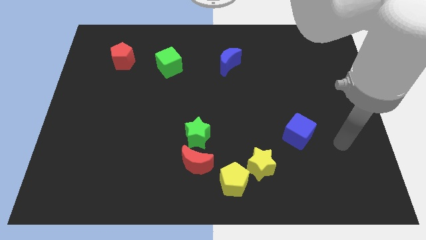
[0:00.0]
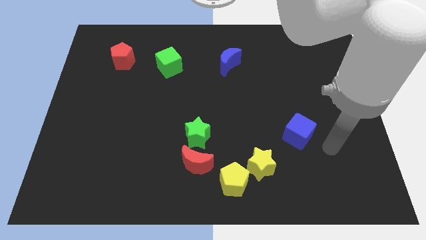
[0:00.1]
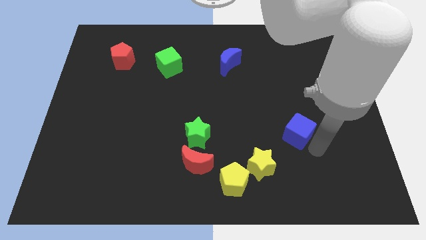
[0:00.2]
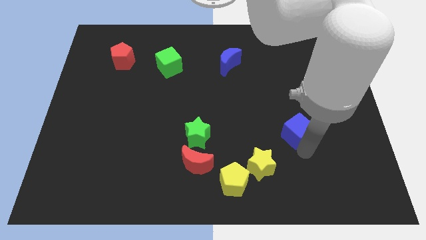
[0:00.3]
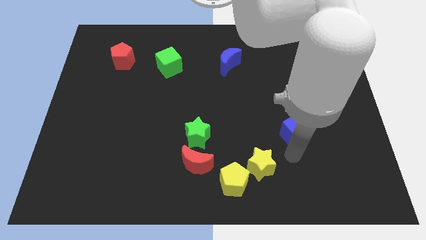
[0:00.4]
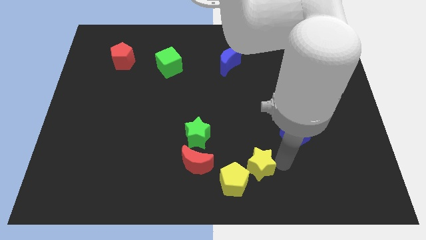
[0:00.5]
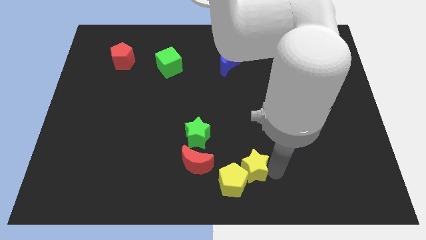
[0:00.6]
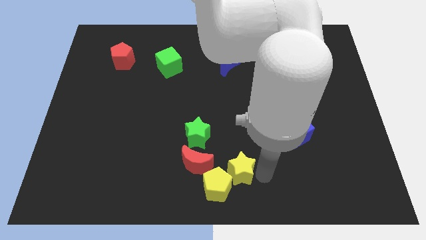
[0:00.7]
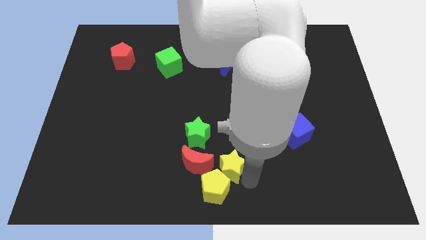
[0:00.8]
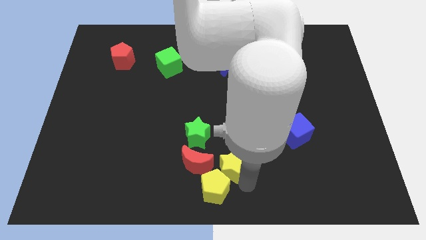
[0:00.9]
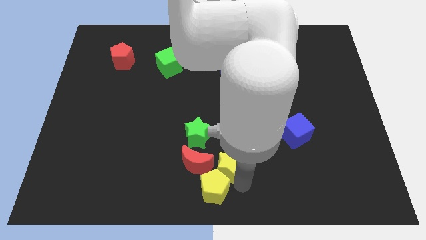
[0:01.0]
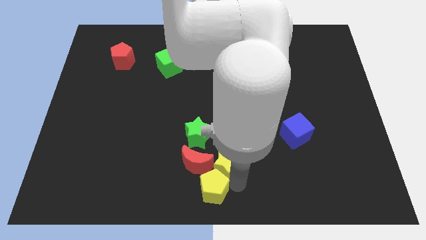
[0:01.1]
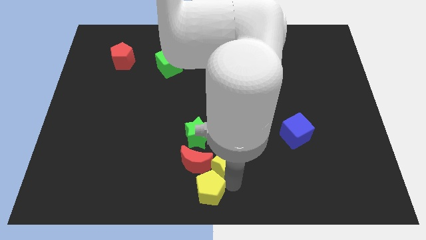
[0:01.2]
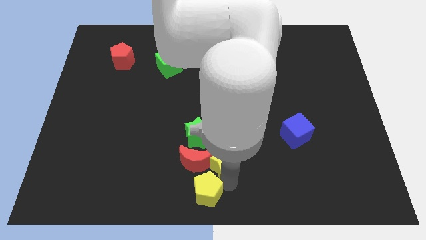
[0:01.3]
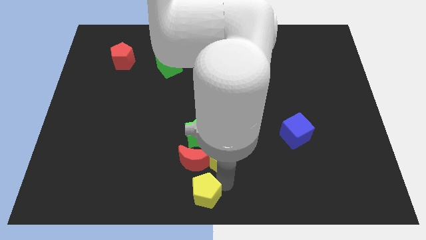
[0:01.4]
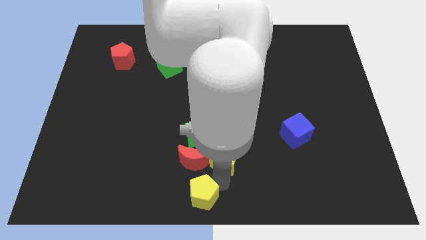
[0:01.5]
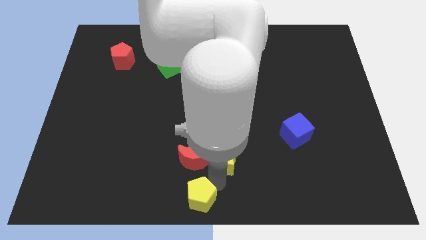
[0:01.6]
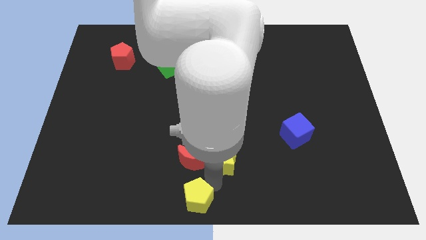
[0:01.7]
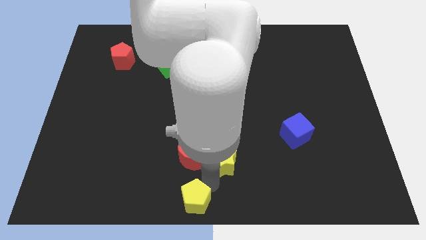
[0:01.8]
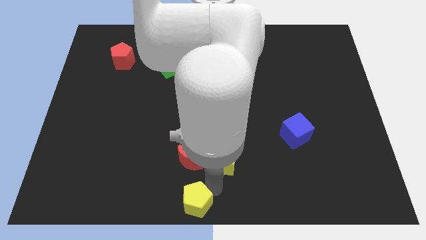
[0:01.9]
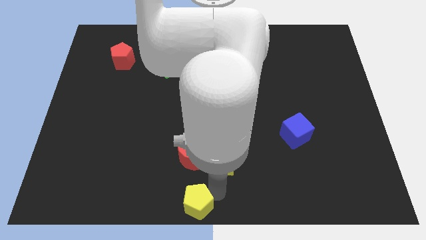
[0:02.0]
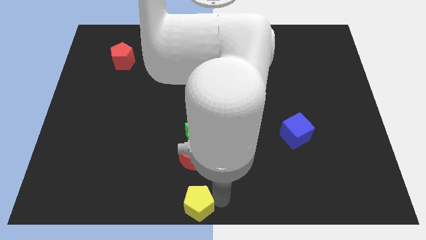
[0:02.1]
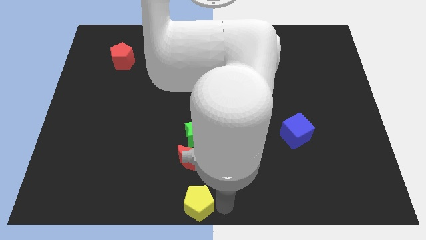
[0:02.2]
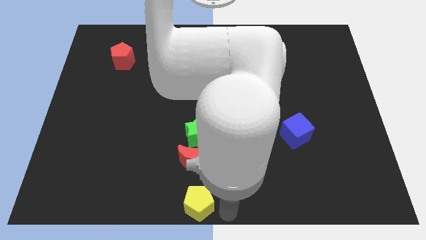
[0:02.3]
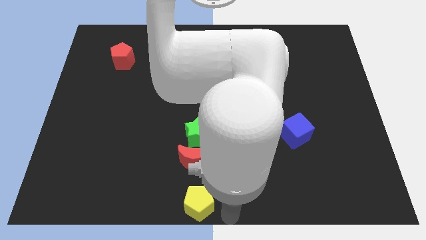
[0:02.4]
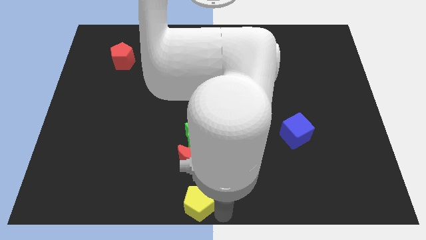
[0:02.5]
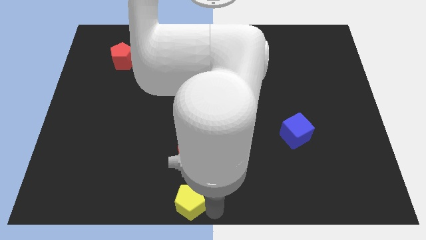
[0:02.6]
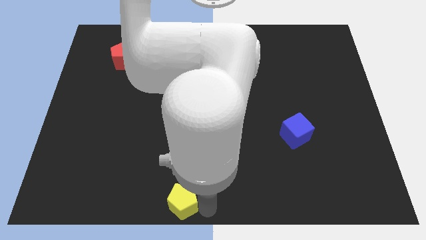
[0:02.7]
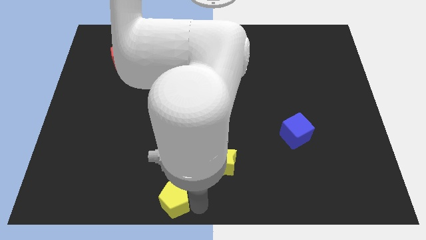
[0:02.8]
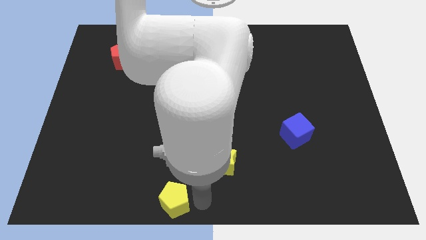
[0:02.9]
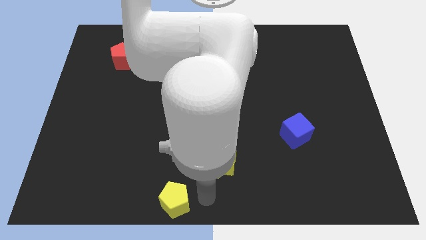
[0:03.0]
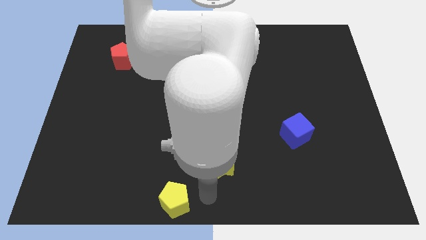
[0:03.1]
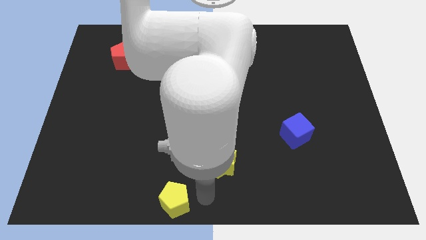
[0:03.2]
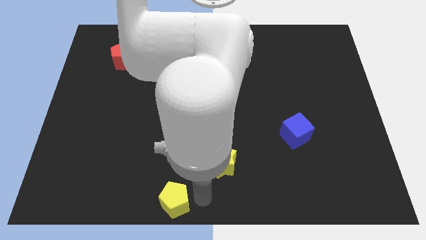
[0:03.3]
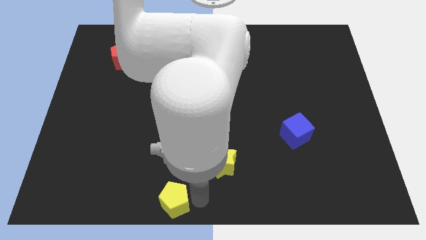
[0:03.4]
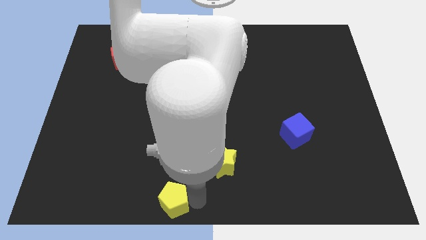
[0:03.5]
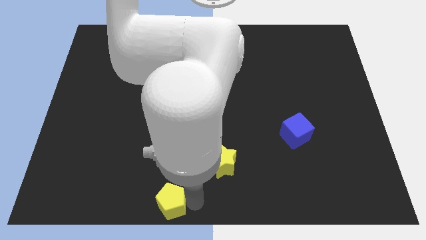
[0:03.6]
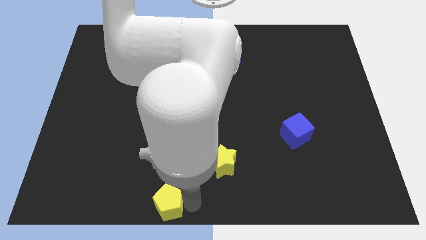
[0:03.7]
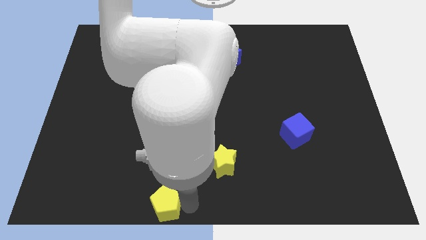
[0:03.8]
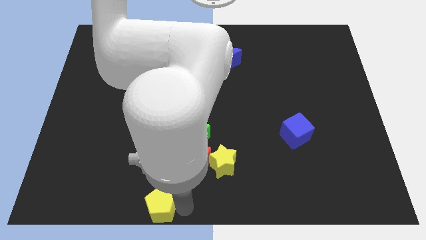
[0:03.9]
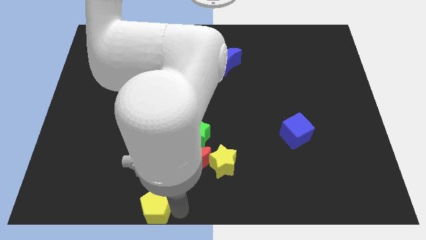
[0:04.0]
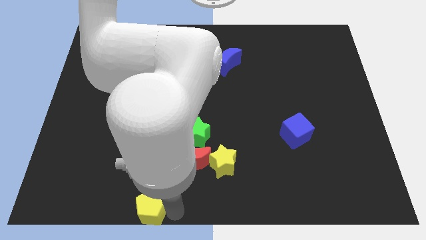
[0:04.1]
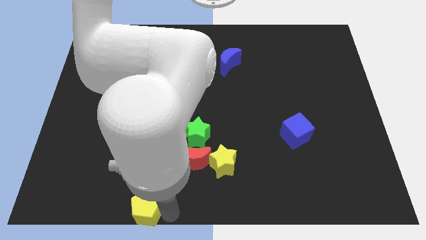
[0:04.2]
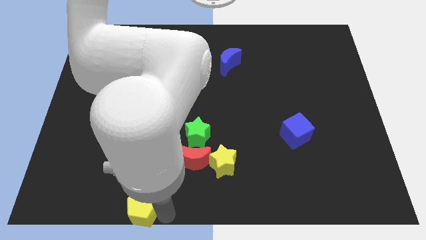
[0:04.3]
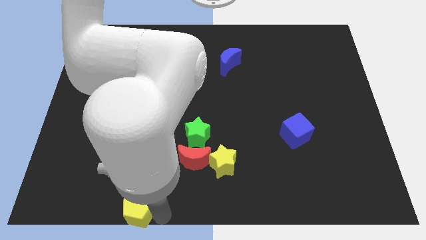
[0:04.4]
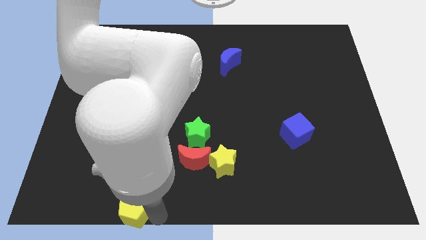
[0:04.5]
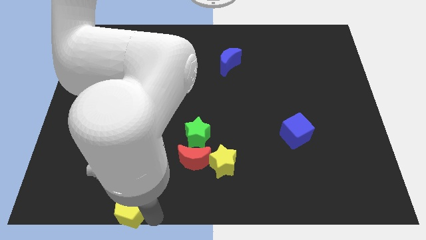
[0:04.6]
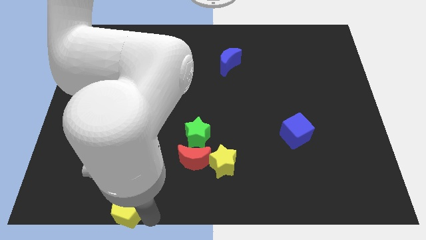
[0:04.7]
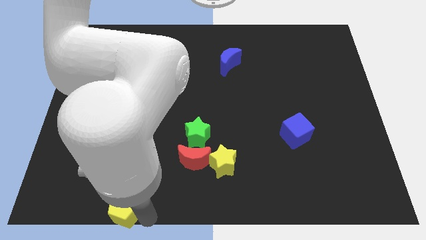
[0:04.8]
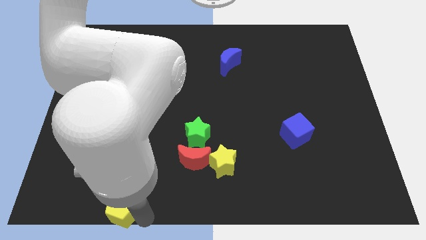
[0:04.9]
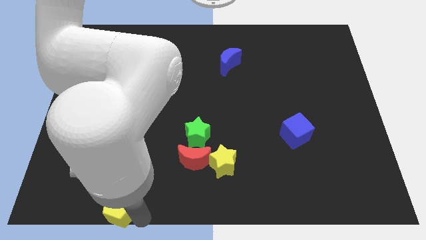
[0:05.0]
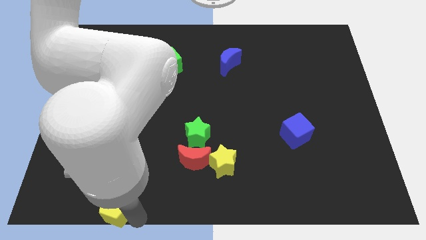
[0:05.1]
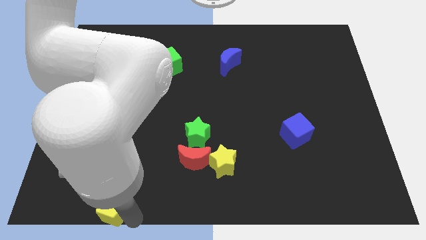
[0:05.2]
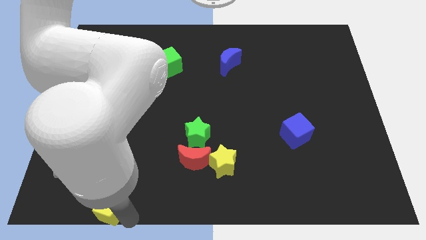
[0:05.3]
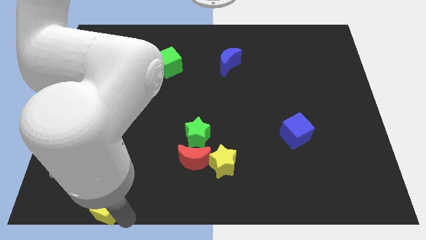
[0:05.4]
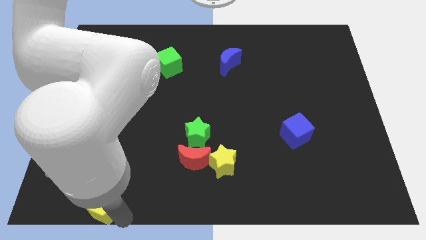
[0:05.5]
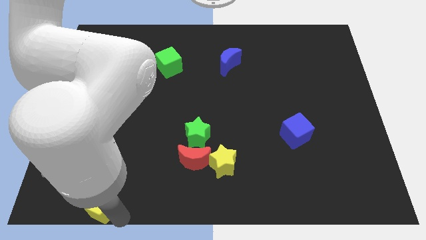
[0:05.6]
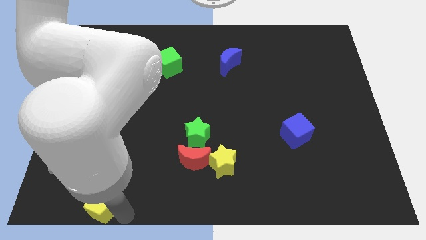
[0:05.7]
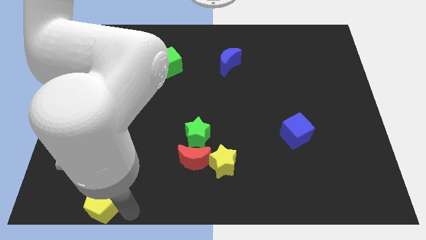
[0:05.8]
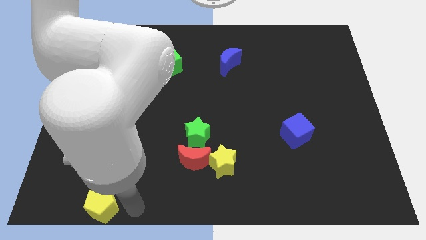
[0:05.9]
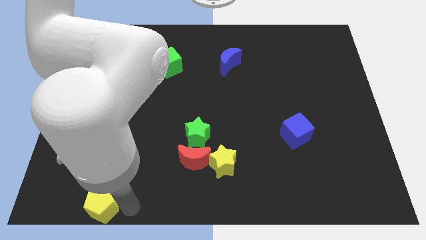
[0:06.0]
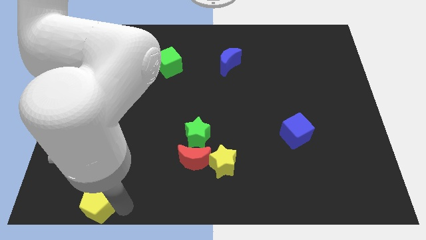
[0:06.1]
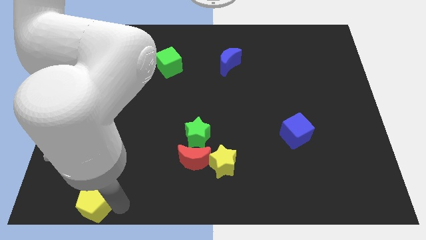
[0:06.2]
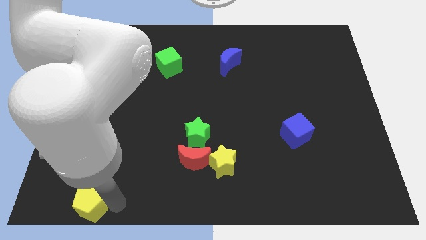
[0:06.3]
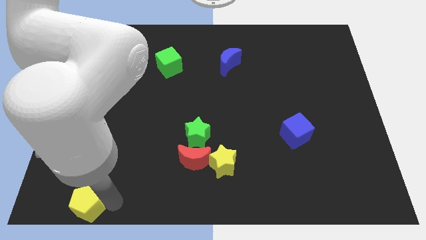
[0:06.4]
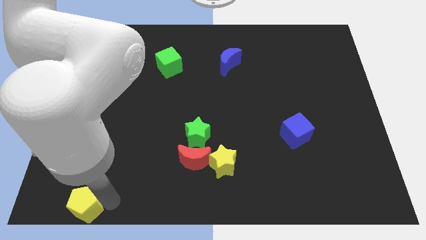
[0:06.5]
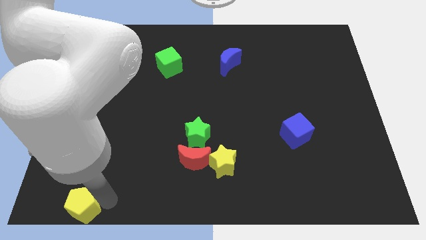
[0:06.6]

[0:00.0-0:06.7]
slide the yellow pentagon to the bottom left of the board

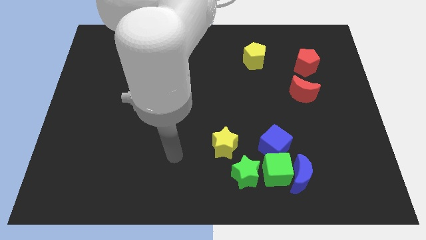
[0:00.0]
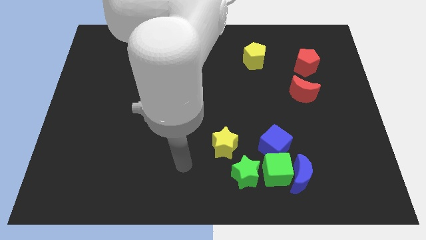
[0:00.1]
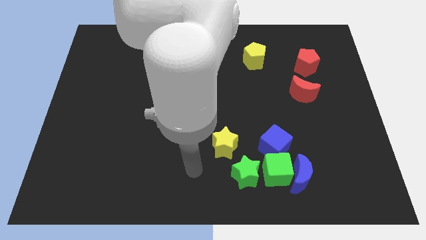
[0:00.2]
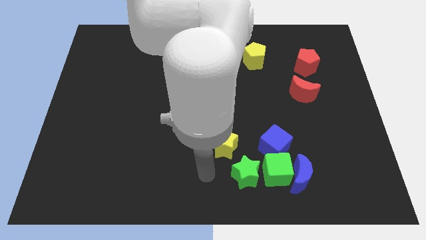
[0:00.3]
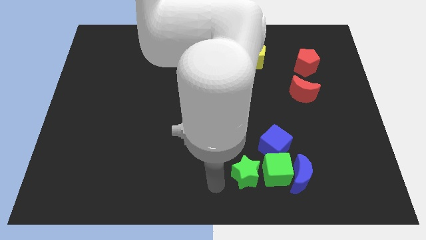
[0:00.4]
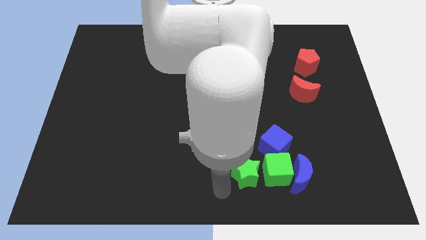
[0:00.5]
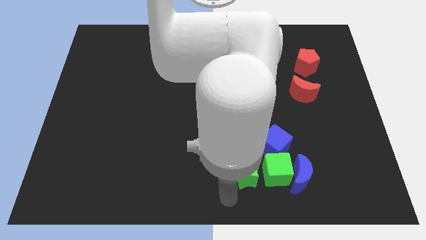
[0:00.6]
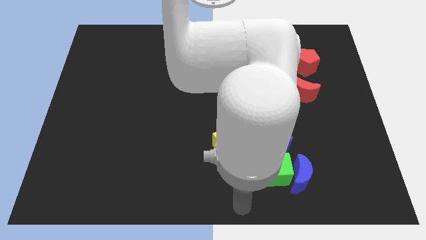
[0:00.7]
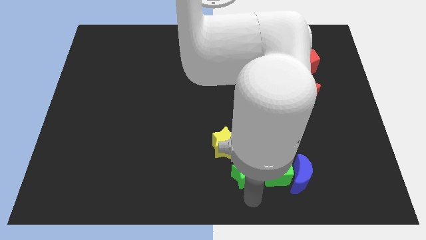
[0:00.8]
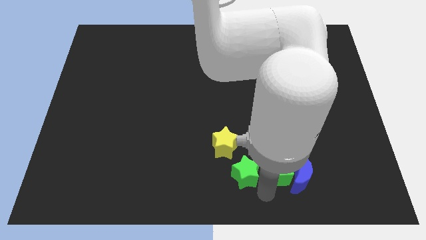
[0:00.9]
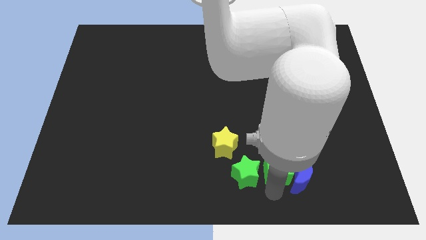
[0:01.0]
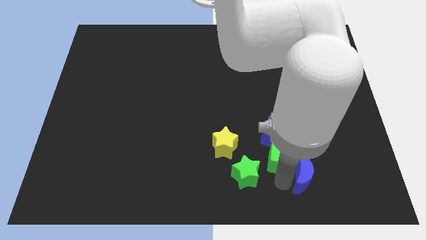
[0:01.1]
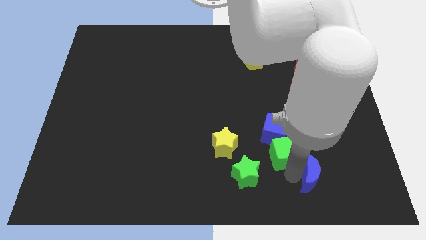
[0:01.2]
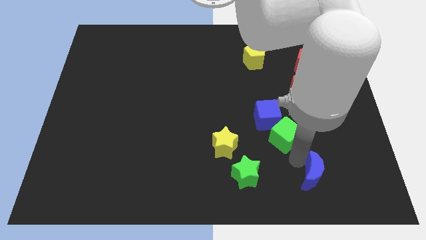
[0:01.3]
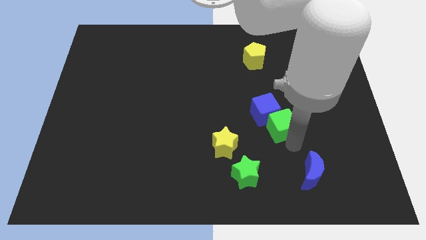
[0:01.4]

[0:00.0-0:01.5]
slide the blue cube to the middle
